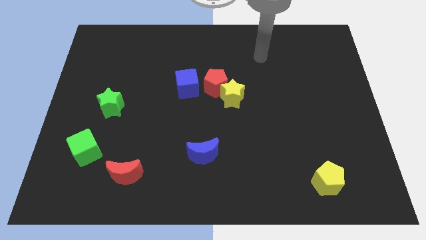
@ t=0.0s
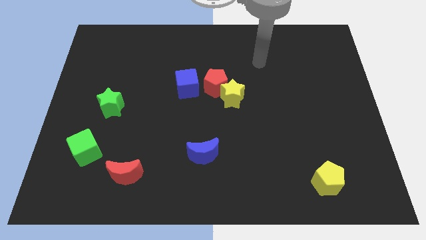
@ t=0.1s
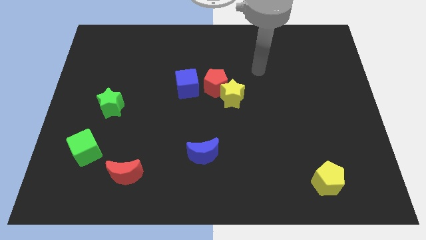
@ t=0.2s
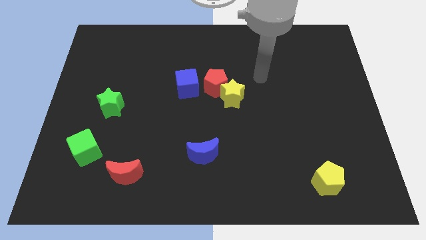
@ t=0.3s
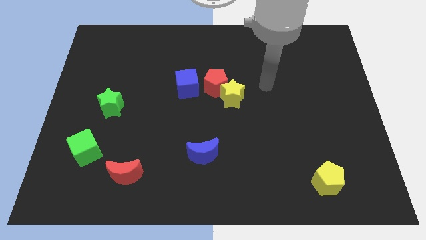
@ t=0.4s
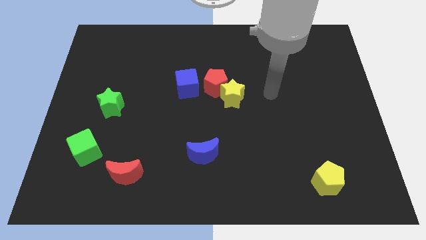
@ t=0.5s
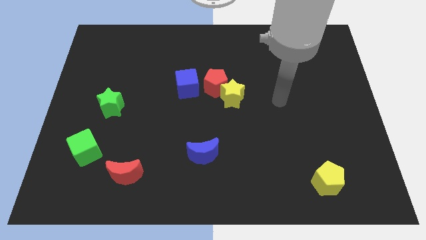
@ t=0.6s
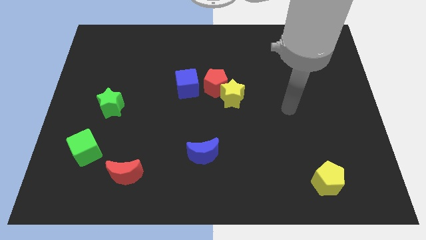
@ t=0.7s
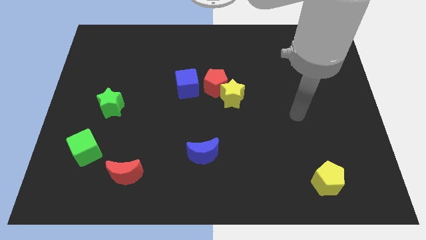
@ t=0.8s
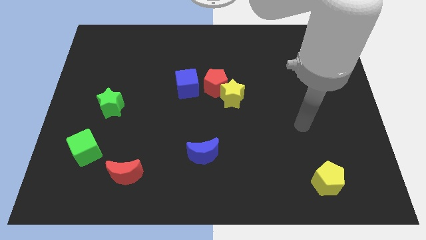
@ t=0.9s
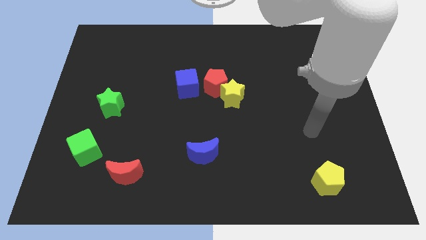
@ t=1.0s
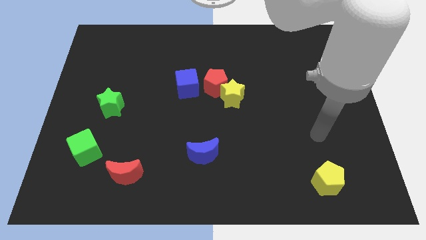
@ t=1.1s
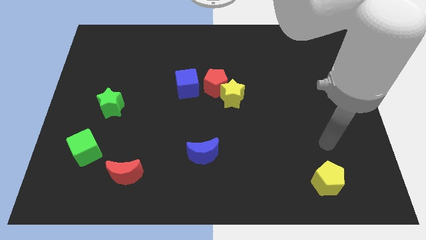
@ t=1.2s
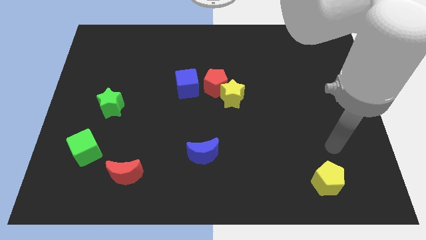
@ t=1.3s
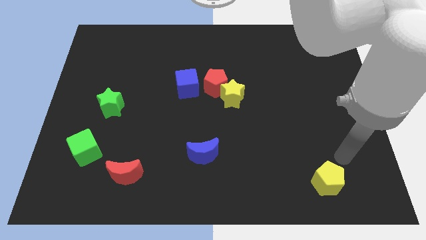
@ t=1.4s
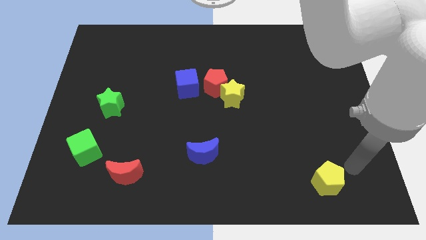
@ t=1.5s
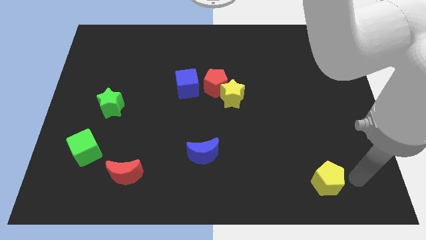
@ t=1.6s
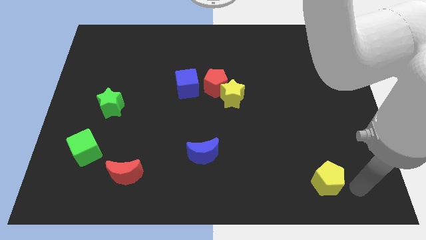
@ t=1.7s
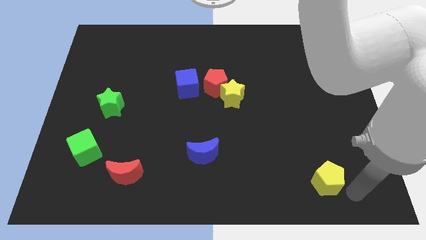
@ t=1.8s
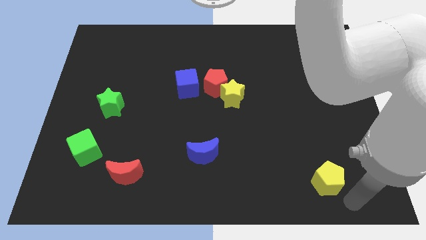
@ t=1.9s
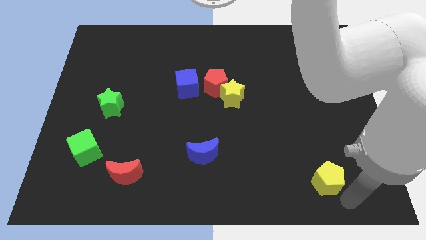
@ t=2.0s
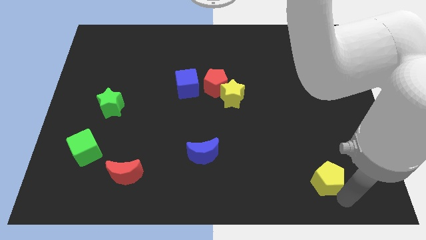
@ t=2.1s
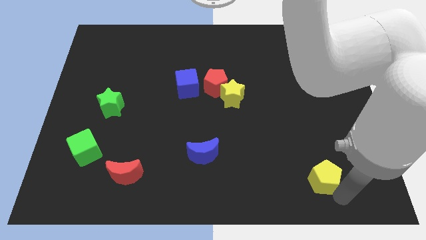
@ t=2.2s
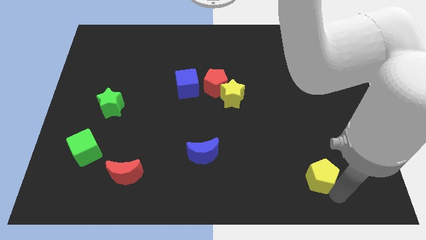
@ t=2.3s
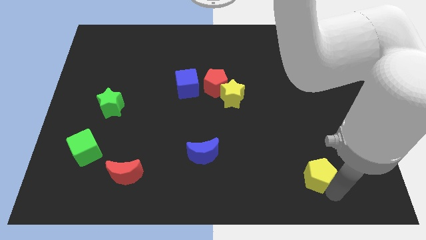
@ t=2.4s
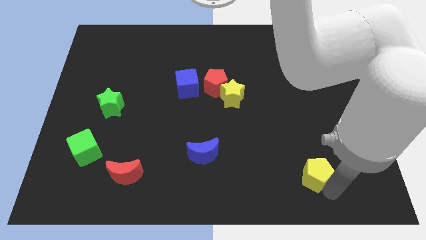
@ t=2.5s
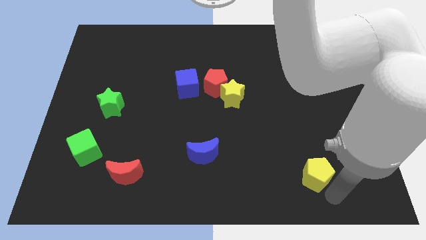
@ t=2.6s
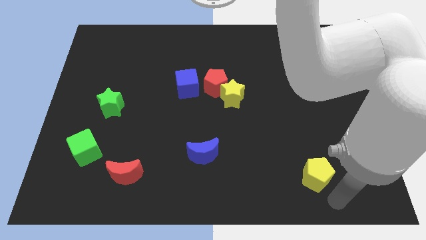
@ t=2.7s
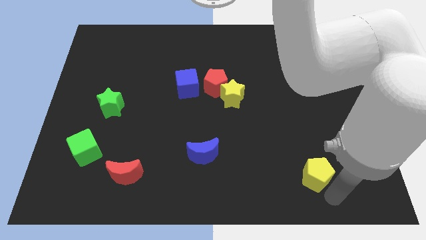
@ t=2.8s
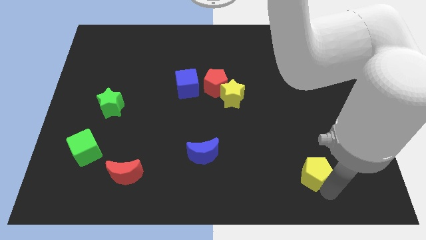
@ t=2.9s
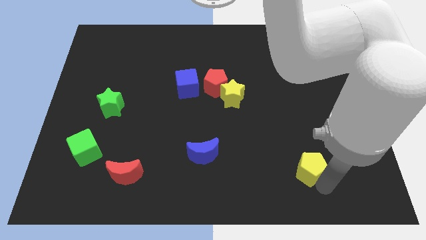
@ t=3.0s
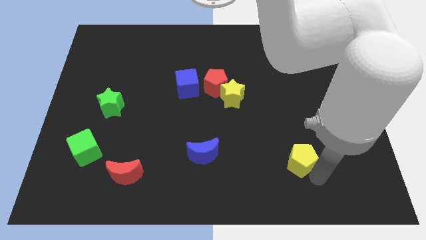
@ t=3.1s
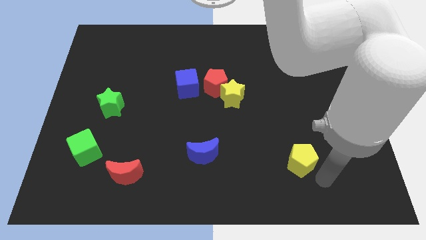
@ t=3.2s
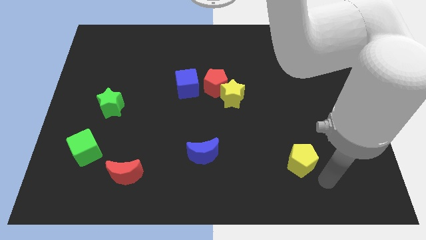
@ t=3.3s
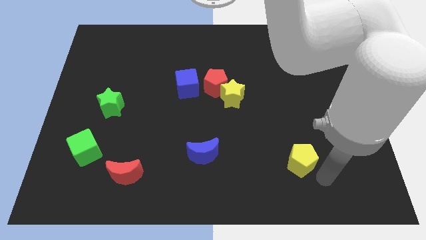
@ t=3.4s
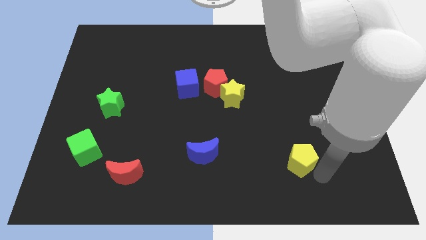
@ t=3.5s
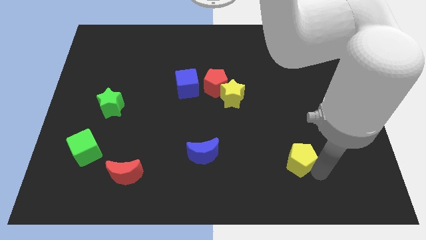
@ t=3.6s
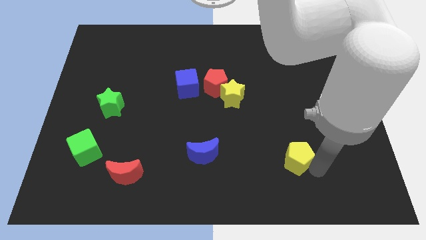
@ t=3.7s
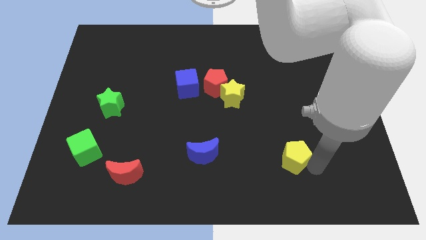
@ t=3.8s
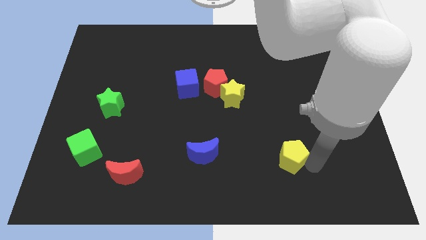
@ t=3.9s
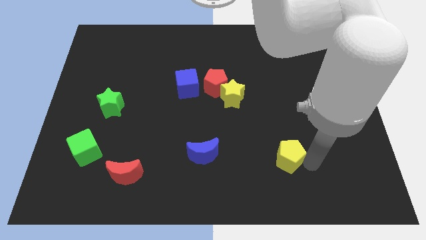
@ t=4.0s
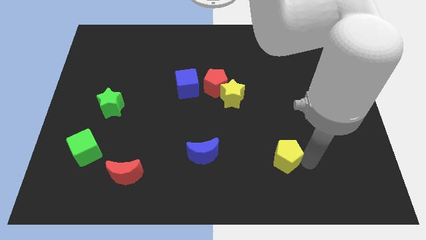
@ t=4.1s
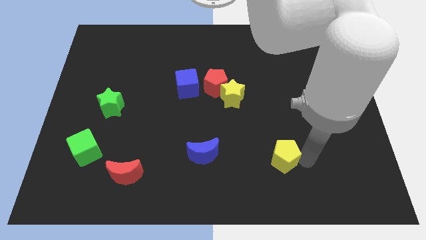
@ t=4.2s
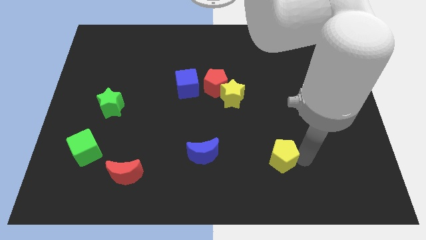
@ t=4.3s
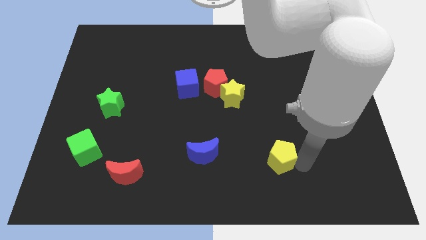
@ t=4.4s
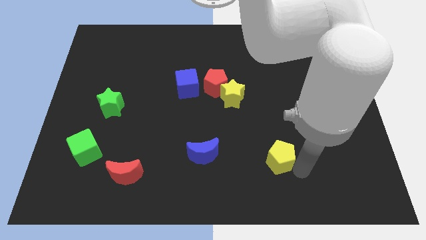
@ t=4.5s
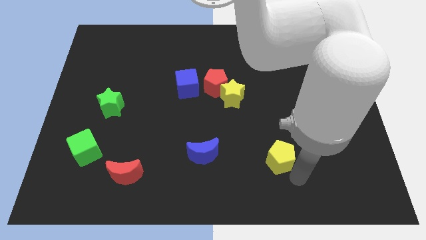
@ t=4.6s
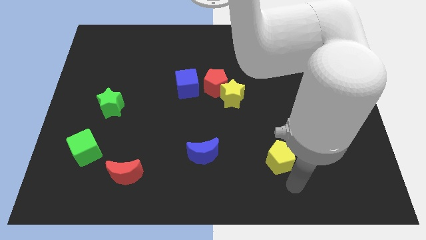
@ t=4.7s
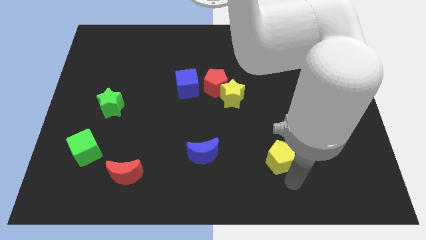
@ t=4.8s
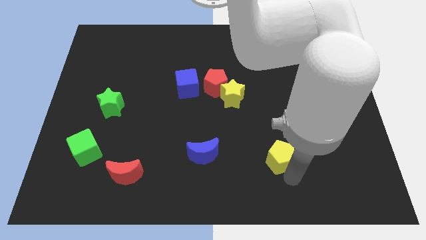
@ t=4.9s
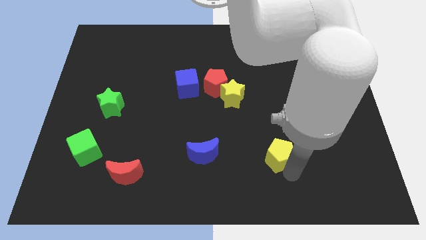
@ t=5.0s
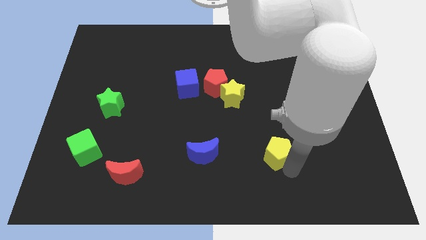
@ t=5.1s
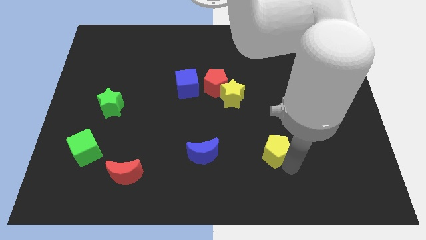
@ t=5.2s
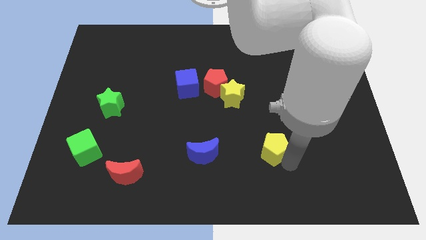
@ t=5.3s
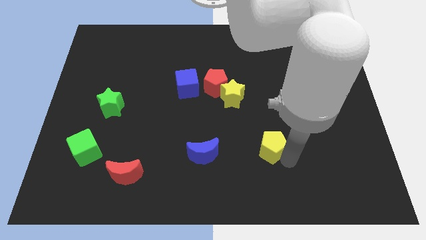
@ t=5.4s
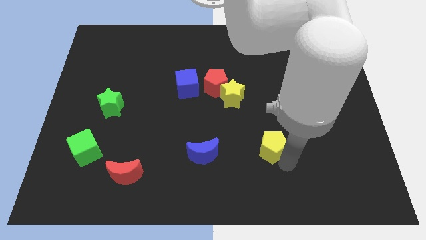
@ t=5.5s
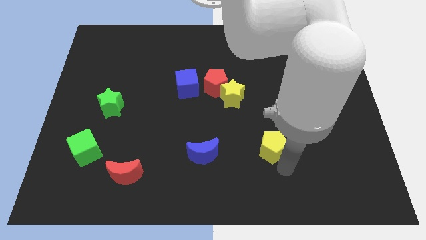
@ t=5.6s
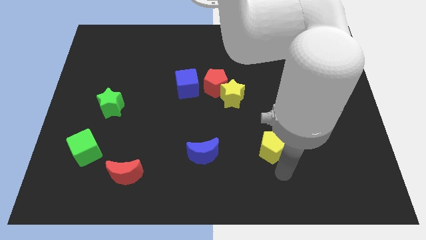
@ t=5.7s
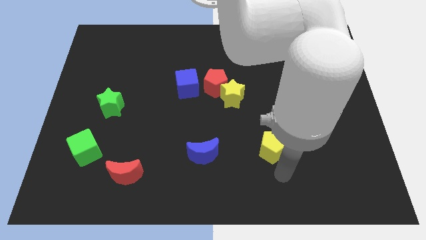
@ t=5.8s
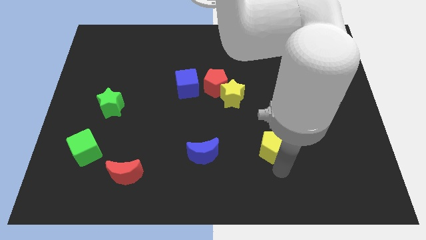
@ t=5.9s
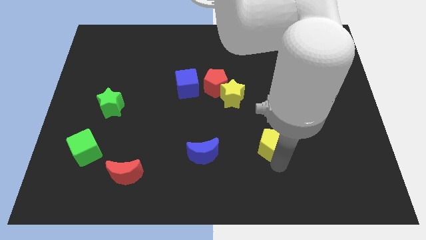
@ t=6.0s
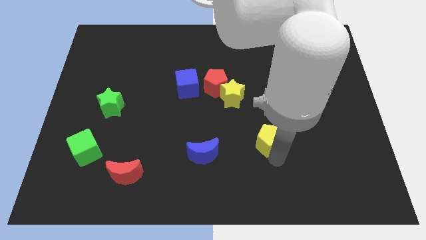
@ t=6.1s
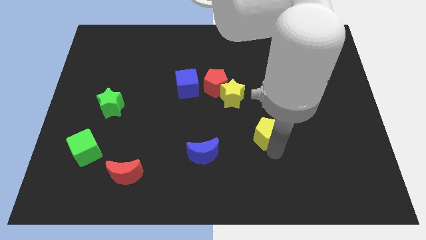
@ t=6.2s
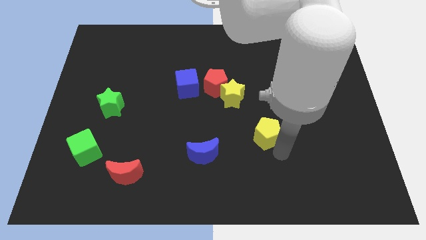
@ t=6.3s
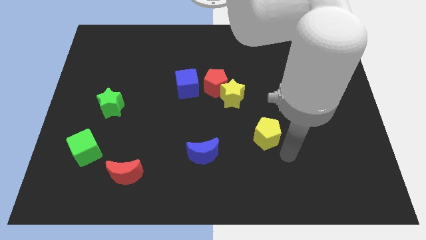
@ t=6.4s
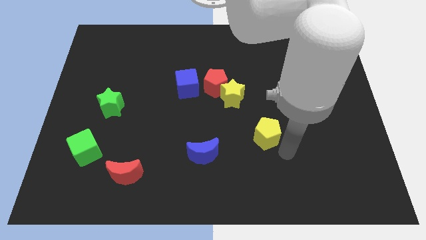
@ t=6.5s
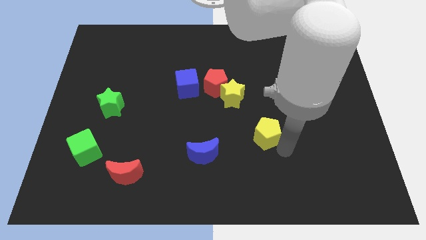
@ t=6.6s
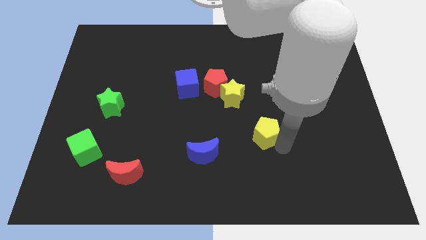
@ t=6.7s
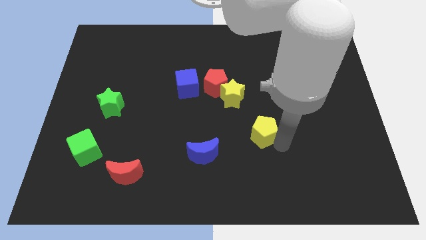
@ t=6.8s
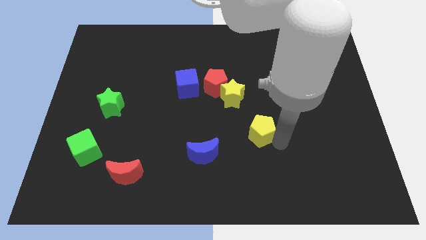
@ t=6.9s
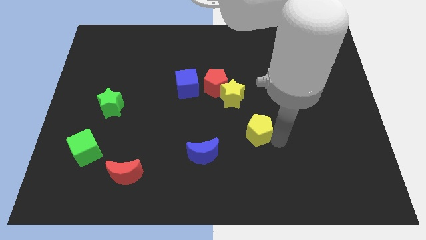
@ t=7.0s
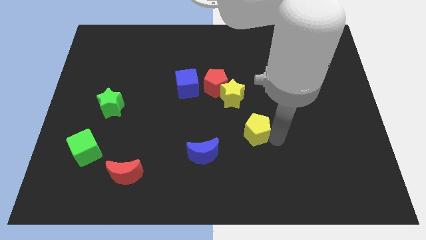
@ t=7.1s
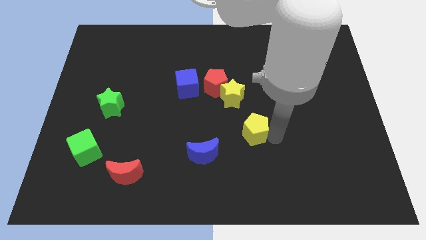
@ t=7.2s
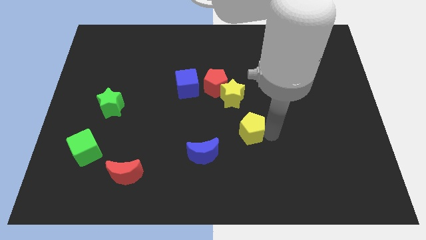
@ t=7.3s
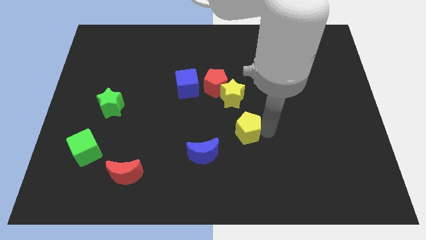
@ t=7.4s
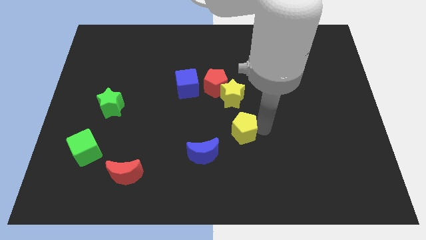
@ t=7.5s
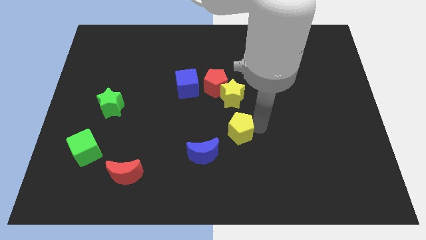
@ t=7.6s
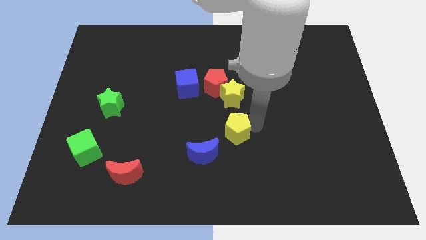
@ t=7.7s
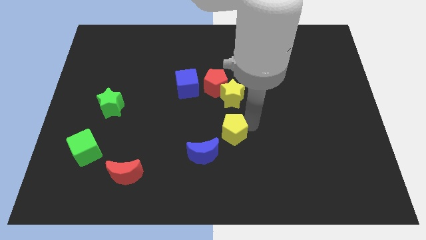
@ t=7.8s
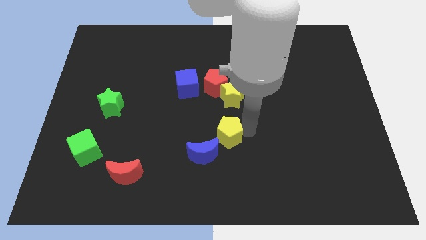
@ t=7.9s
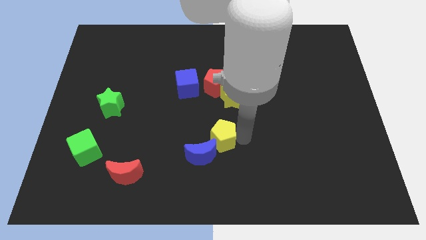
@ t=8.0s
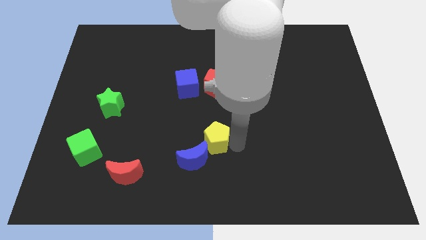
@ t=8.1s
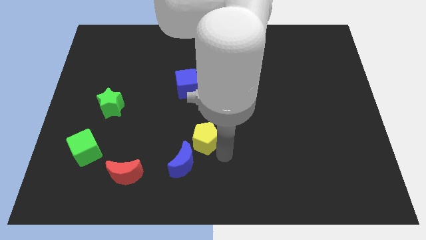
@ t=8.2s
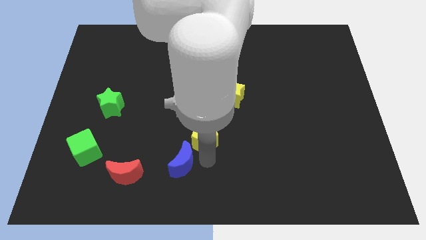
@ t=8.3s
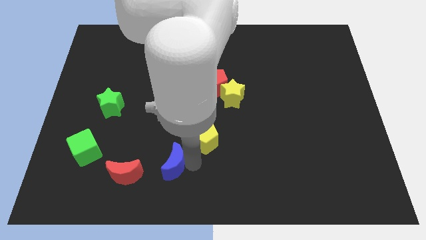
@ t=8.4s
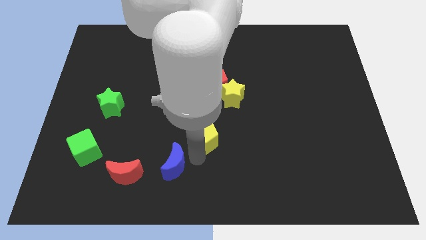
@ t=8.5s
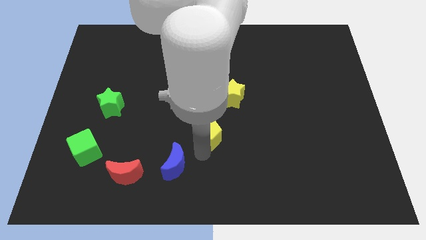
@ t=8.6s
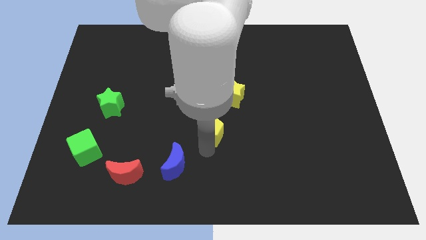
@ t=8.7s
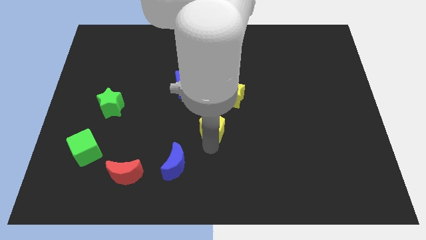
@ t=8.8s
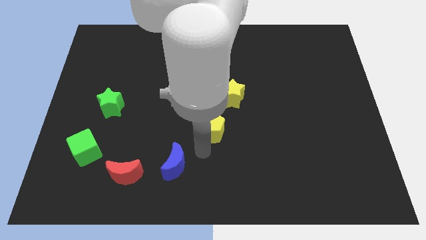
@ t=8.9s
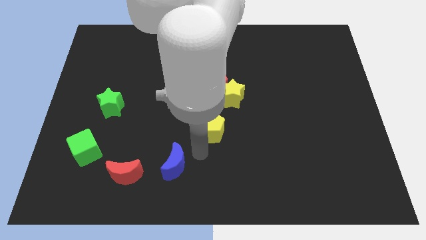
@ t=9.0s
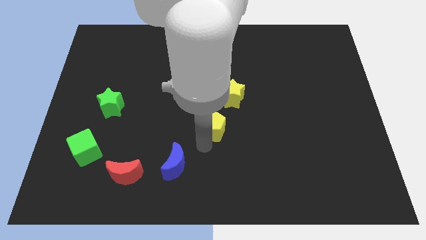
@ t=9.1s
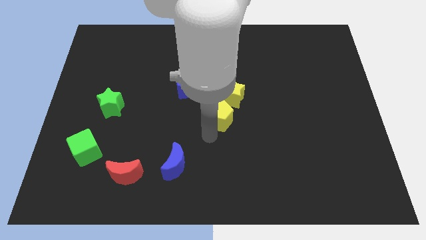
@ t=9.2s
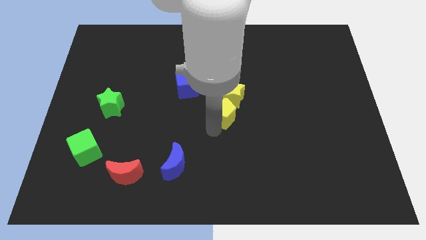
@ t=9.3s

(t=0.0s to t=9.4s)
put the yellow pentagon towards the yellow star
